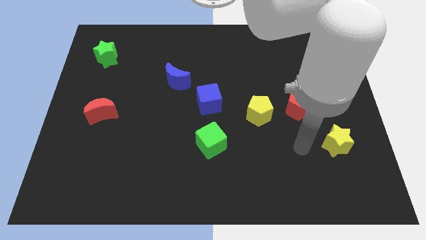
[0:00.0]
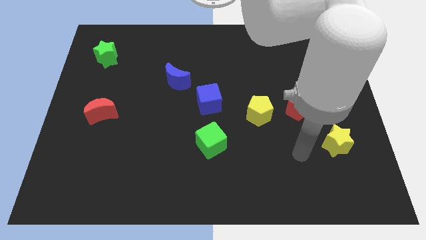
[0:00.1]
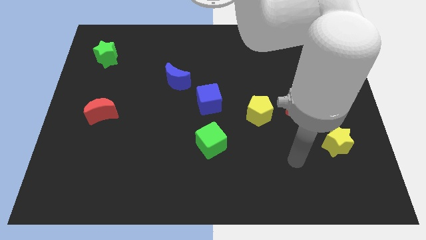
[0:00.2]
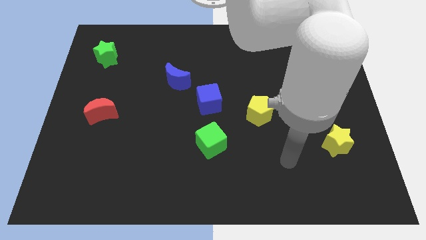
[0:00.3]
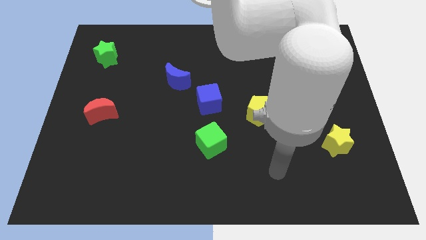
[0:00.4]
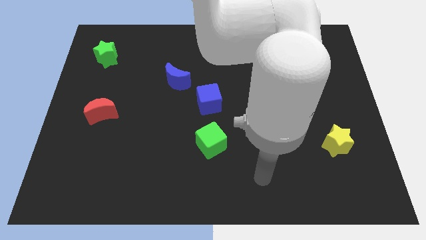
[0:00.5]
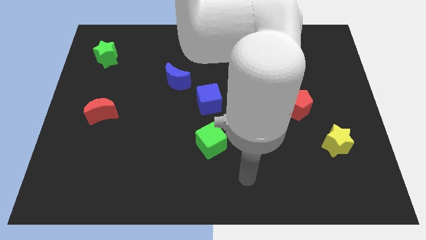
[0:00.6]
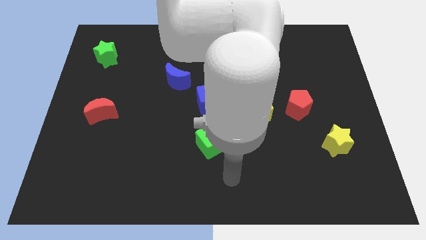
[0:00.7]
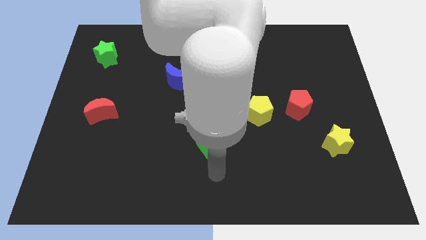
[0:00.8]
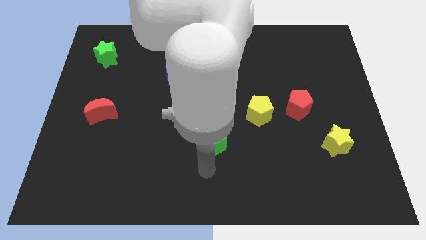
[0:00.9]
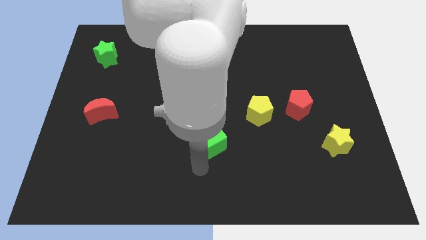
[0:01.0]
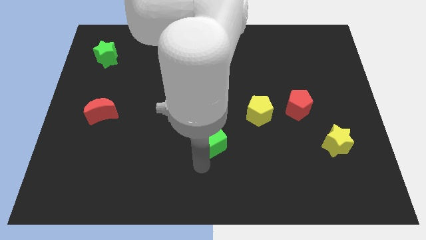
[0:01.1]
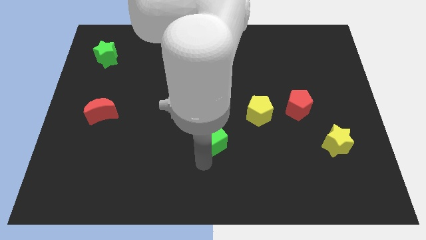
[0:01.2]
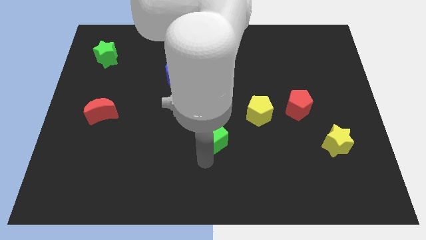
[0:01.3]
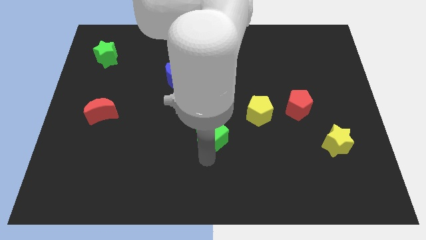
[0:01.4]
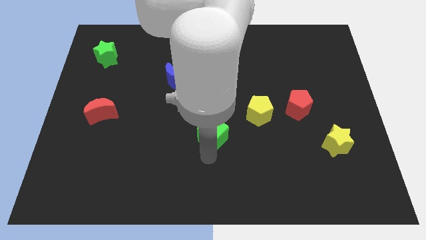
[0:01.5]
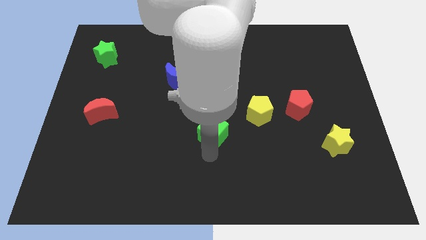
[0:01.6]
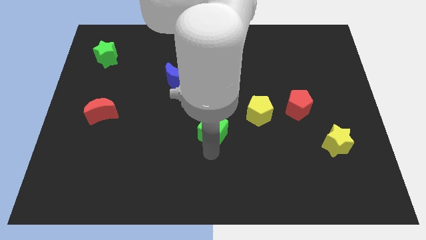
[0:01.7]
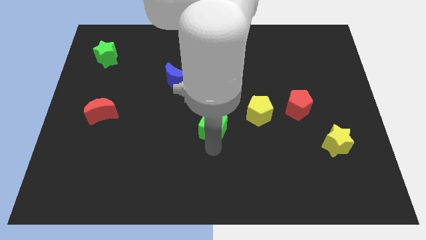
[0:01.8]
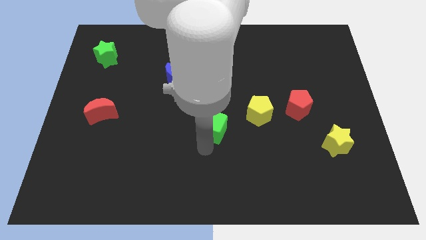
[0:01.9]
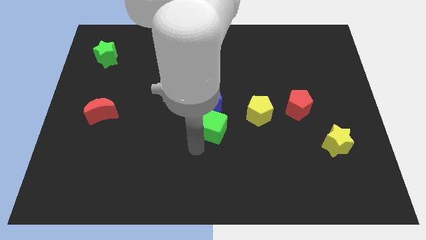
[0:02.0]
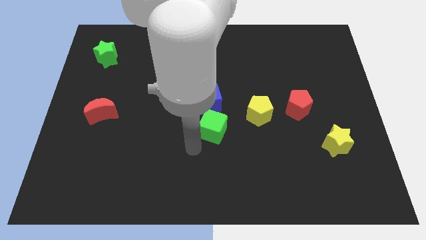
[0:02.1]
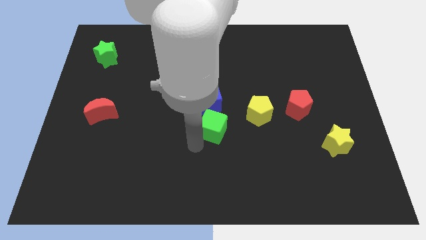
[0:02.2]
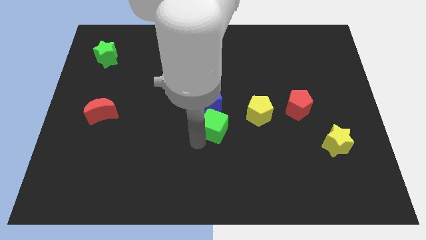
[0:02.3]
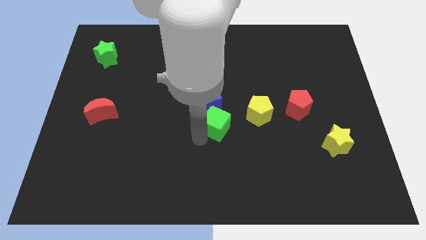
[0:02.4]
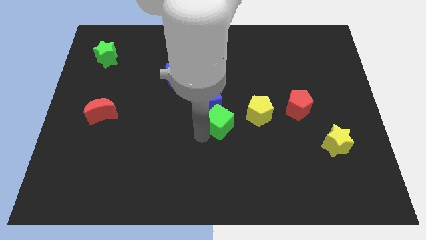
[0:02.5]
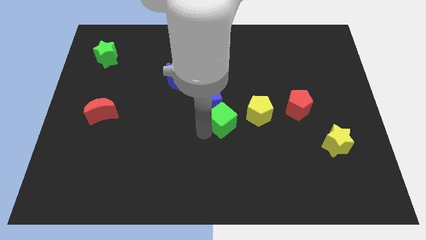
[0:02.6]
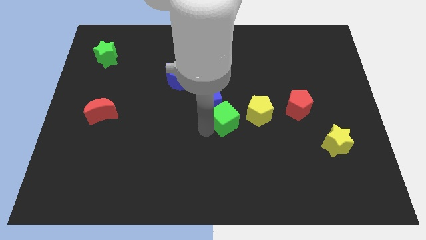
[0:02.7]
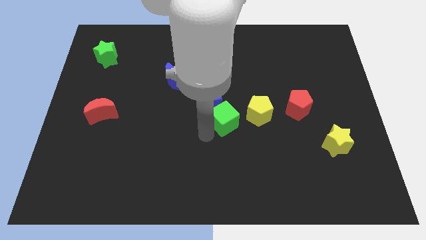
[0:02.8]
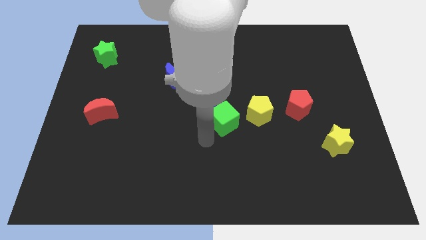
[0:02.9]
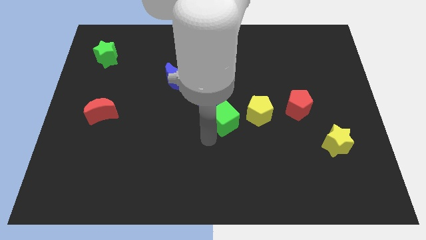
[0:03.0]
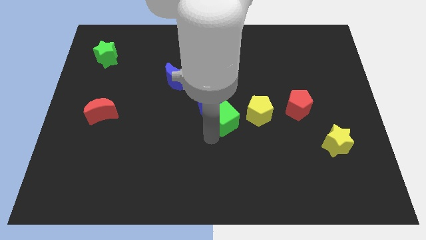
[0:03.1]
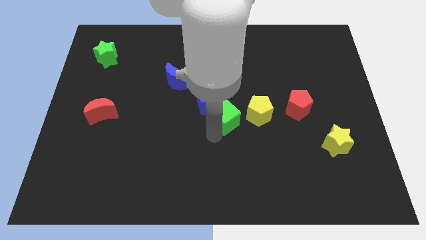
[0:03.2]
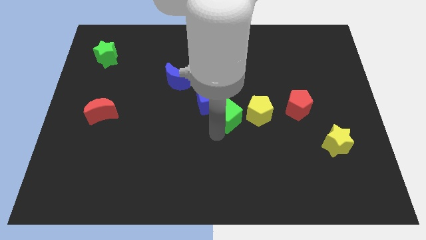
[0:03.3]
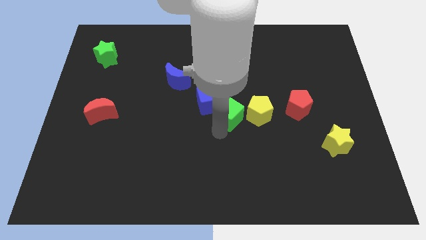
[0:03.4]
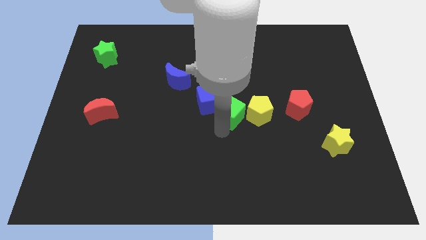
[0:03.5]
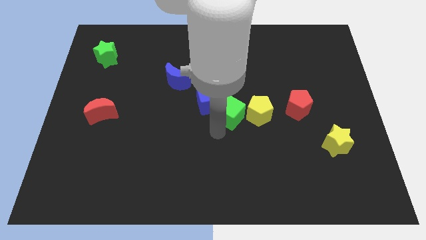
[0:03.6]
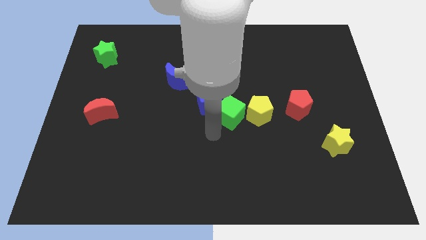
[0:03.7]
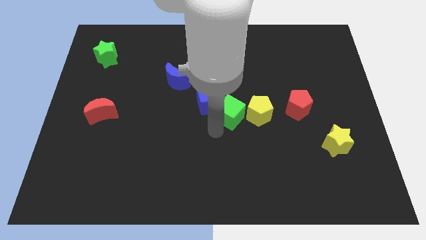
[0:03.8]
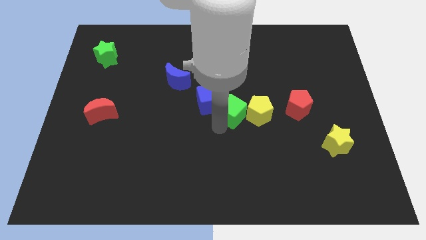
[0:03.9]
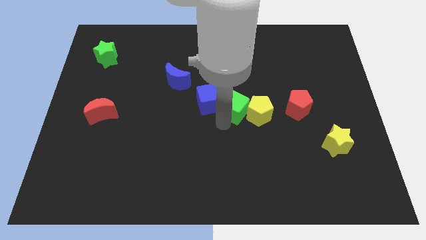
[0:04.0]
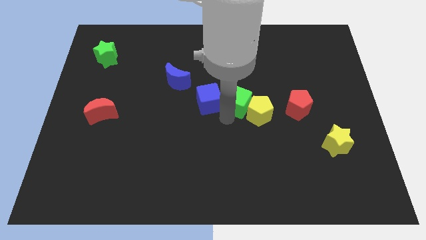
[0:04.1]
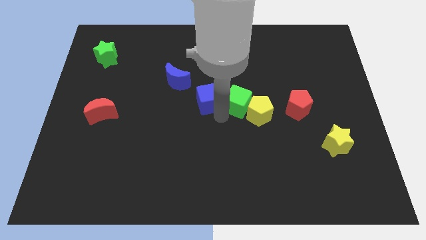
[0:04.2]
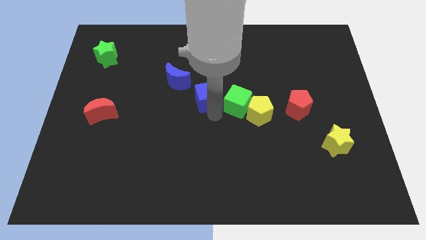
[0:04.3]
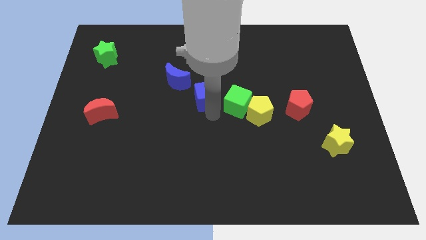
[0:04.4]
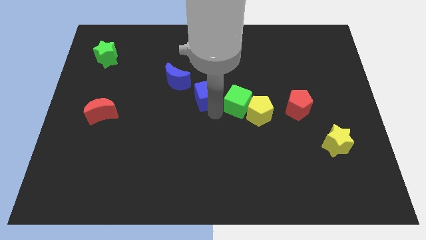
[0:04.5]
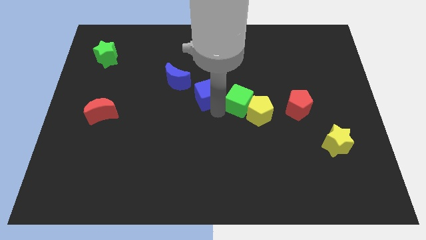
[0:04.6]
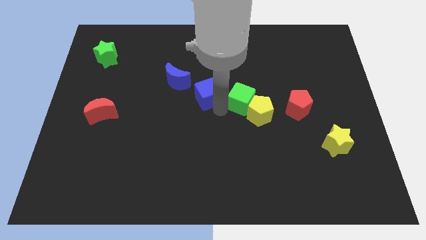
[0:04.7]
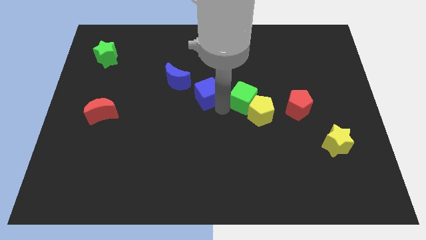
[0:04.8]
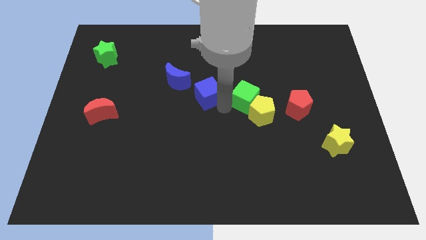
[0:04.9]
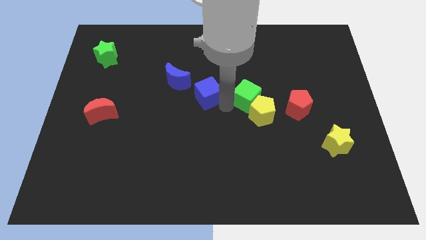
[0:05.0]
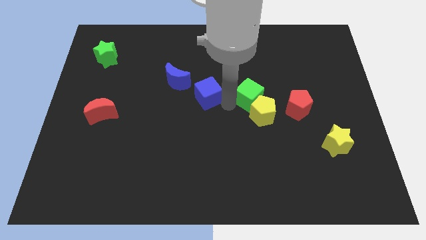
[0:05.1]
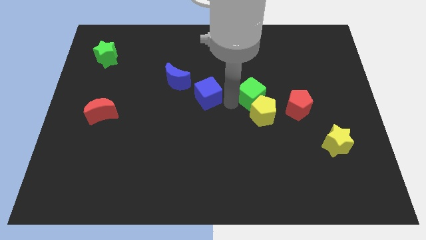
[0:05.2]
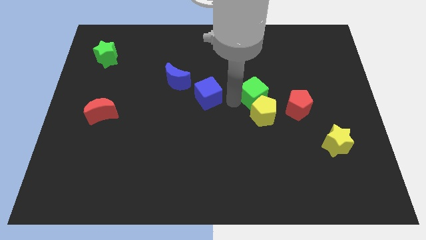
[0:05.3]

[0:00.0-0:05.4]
move the green cube to the top left side of the red pentagon

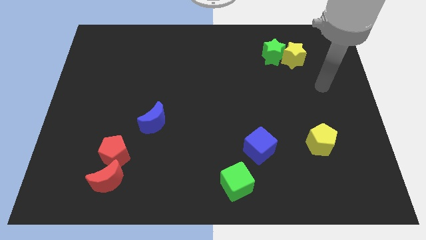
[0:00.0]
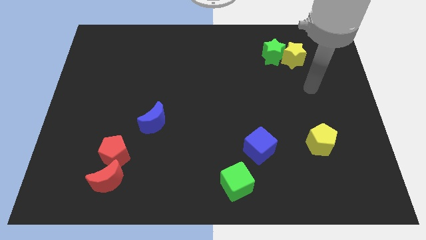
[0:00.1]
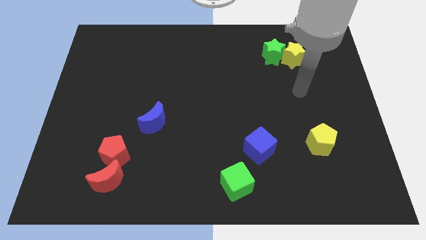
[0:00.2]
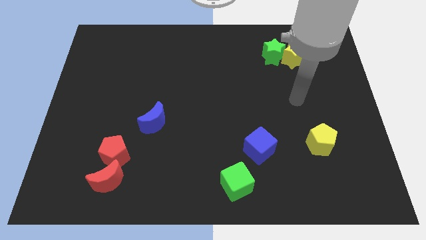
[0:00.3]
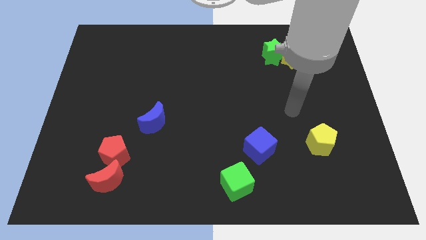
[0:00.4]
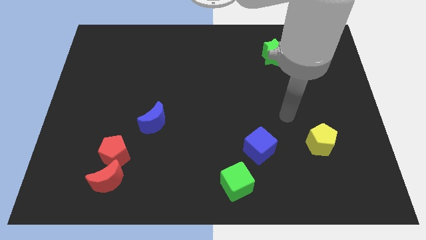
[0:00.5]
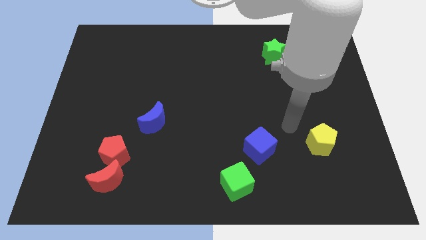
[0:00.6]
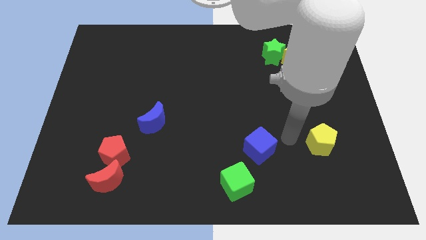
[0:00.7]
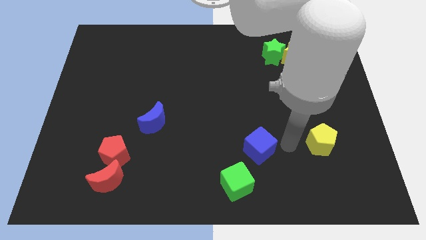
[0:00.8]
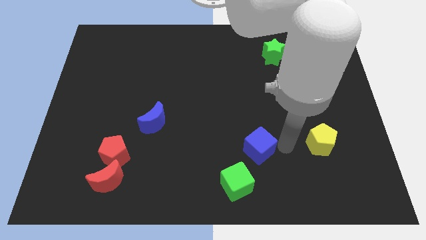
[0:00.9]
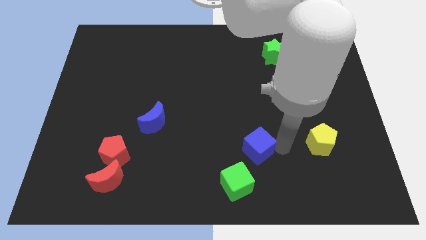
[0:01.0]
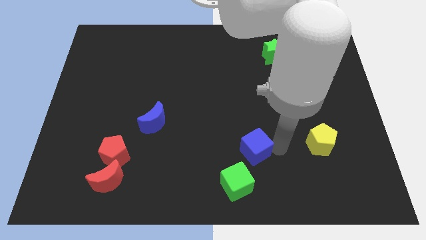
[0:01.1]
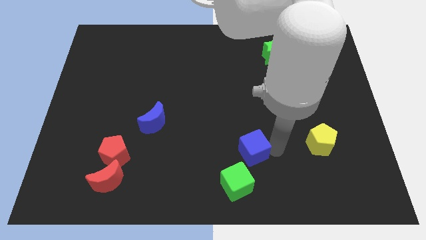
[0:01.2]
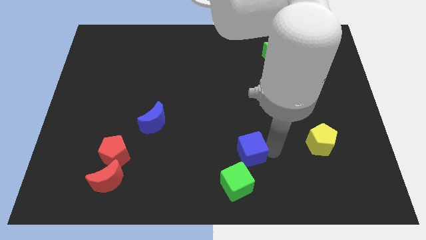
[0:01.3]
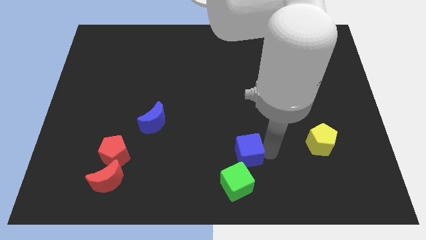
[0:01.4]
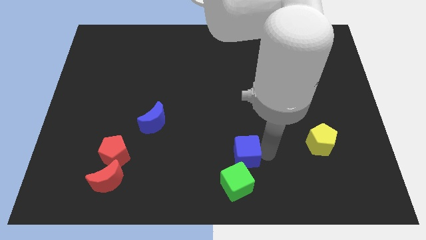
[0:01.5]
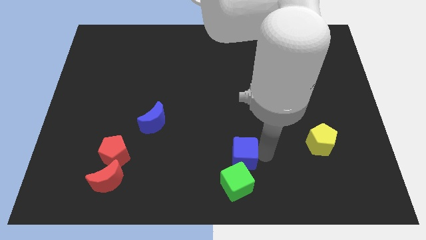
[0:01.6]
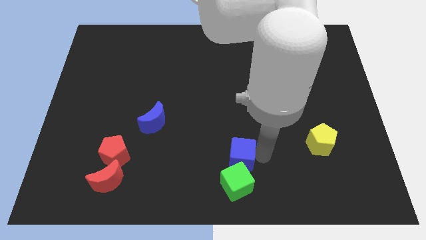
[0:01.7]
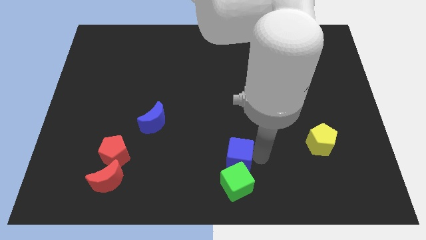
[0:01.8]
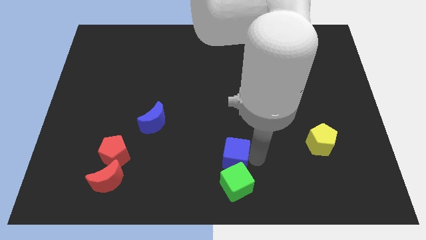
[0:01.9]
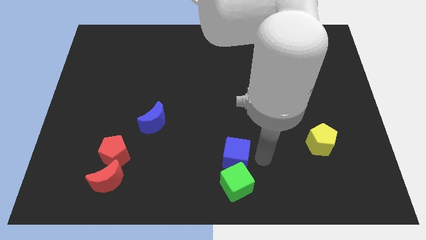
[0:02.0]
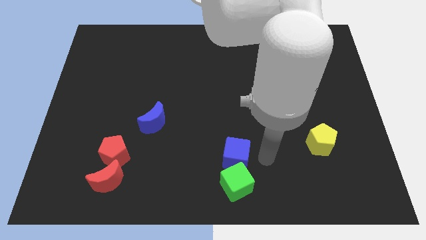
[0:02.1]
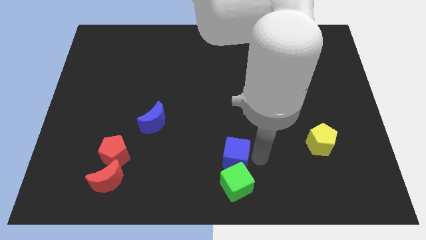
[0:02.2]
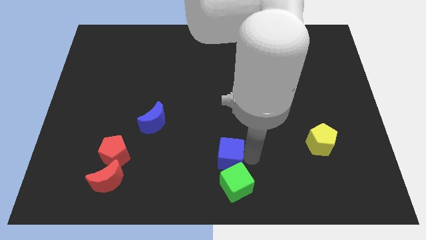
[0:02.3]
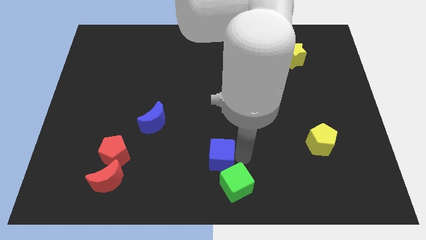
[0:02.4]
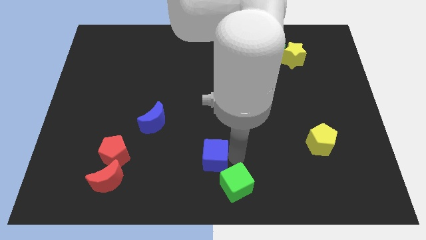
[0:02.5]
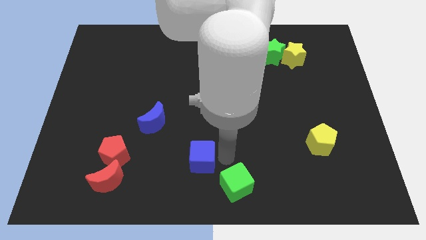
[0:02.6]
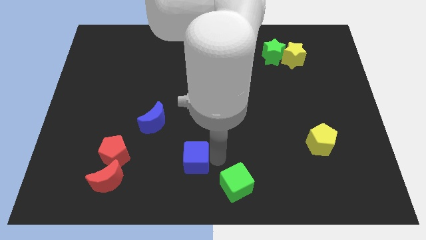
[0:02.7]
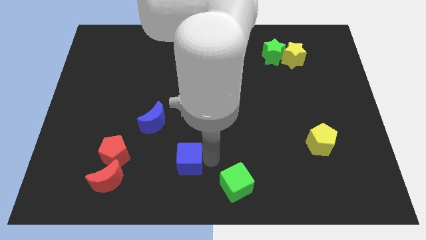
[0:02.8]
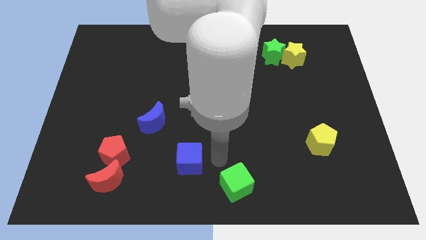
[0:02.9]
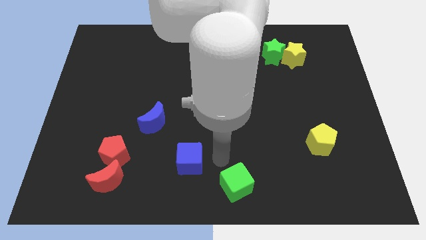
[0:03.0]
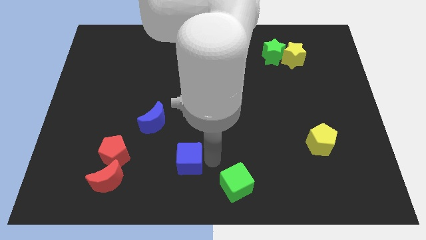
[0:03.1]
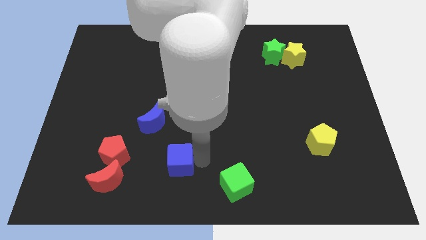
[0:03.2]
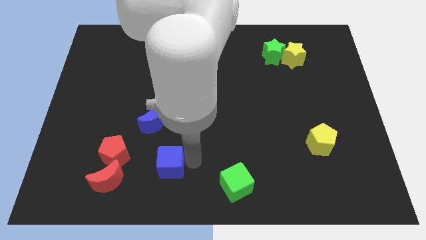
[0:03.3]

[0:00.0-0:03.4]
move the blue cube below the blue moon

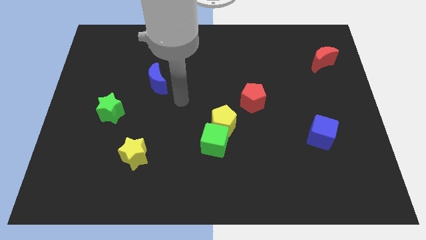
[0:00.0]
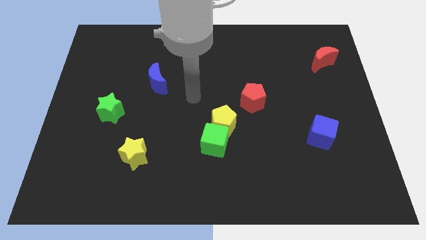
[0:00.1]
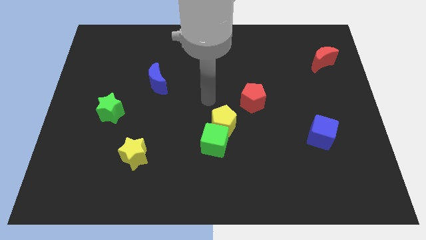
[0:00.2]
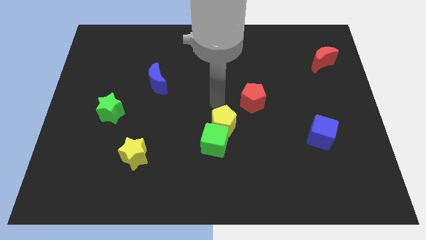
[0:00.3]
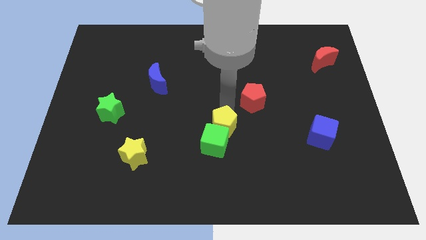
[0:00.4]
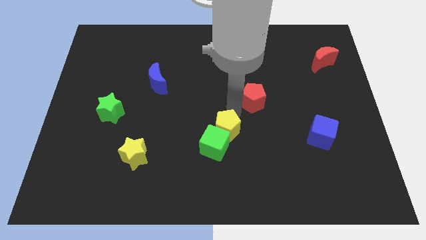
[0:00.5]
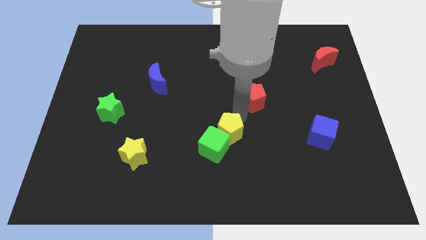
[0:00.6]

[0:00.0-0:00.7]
put the green cube to the left of the yellow pentagon
